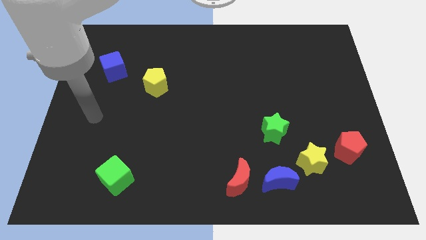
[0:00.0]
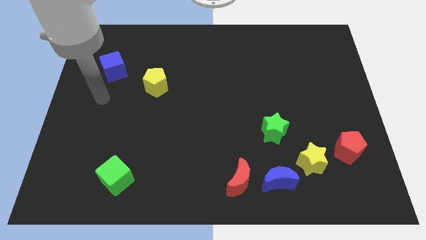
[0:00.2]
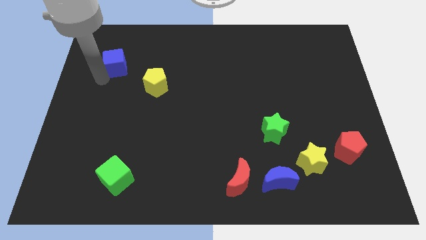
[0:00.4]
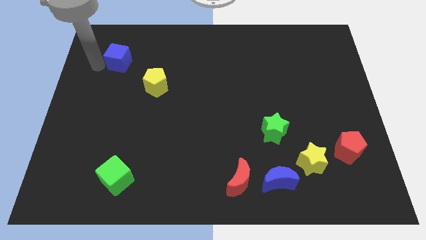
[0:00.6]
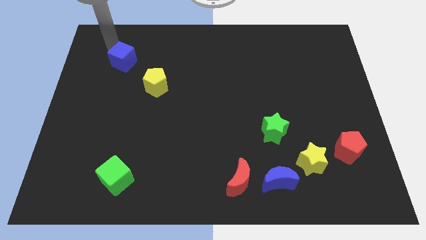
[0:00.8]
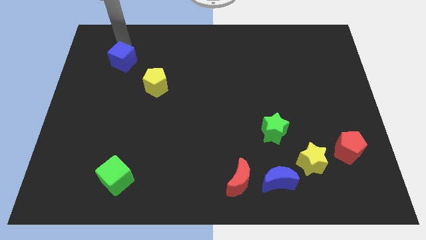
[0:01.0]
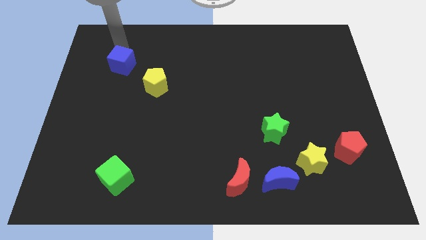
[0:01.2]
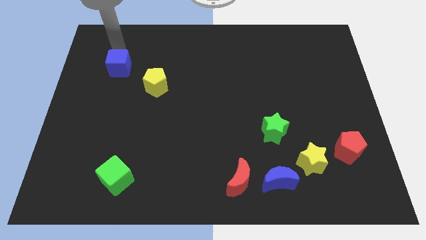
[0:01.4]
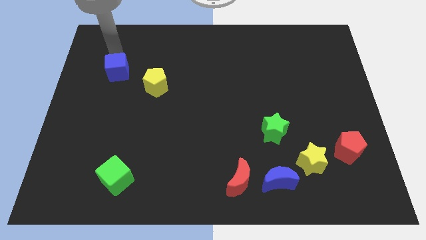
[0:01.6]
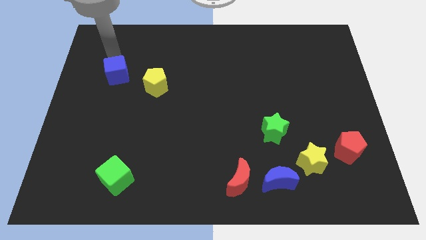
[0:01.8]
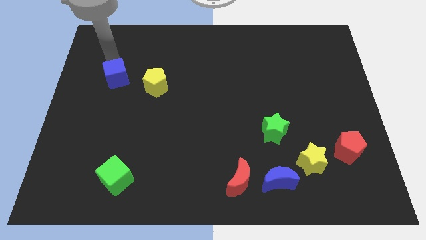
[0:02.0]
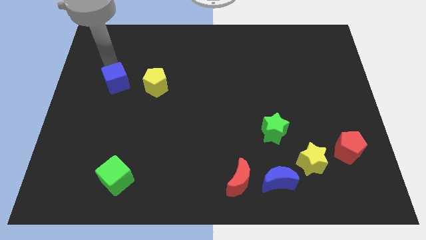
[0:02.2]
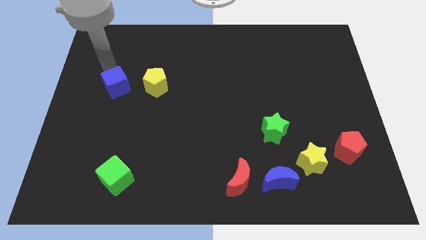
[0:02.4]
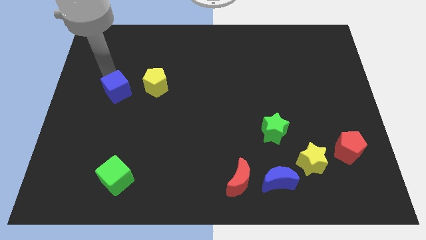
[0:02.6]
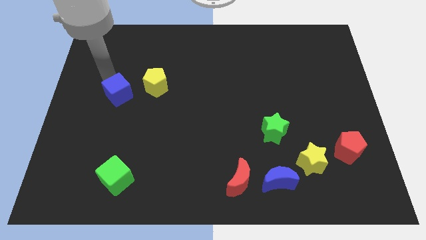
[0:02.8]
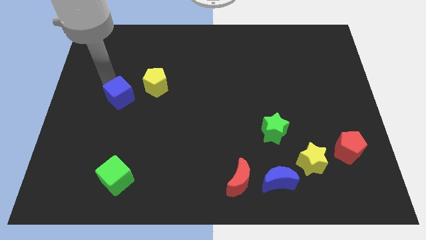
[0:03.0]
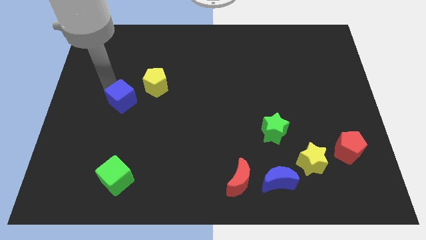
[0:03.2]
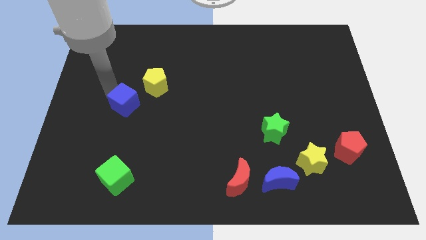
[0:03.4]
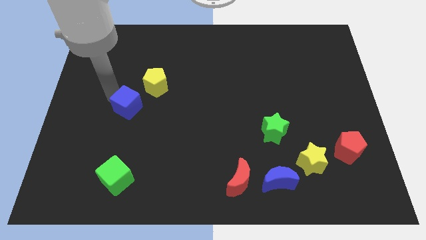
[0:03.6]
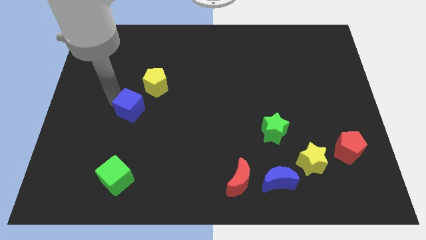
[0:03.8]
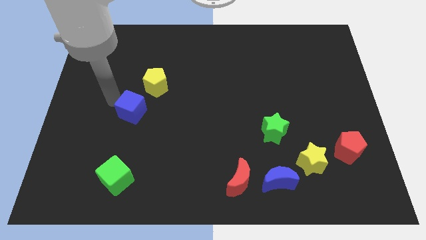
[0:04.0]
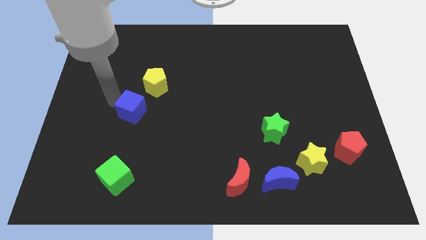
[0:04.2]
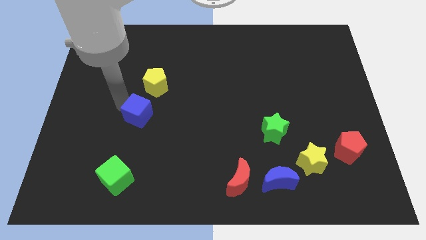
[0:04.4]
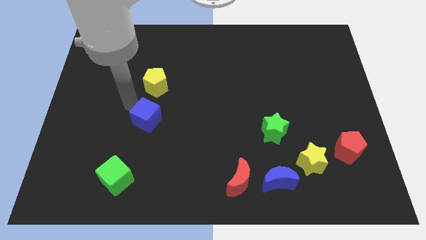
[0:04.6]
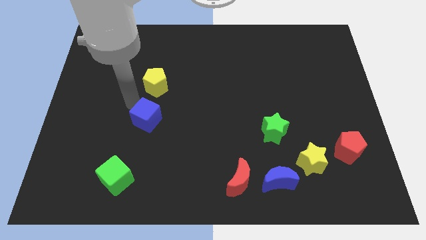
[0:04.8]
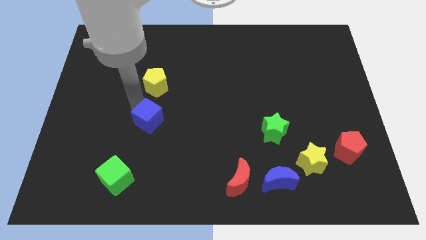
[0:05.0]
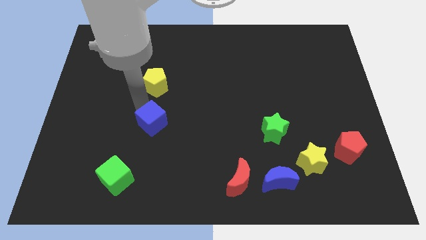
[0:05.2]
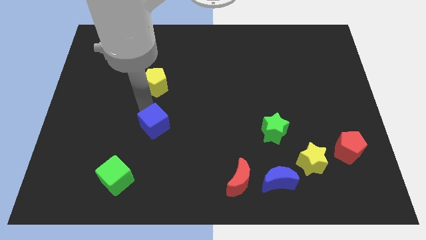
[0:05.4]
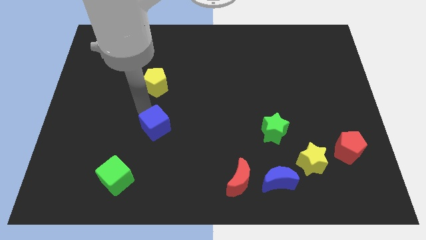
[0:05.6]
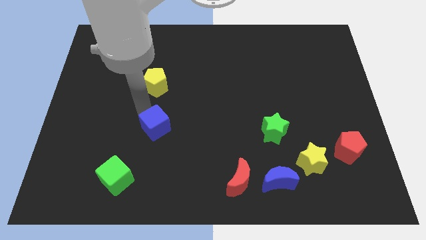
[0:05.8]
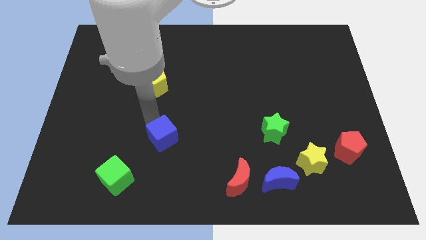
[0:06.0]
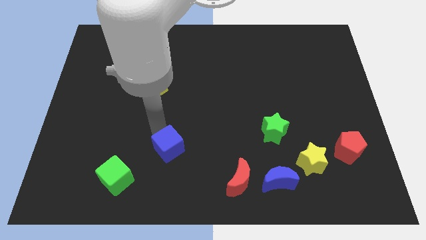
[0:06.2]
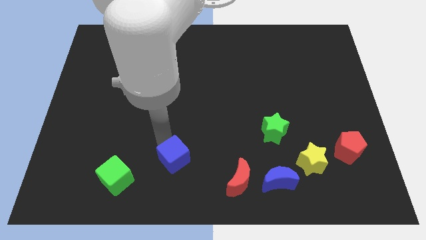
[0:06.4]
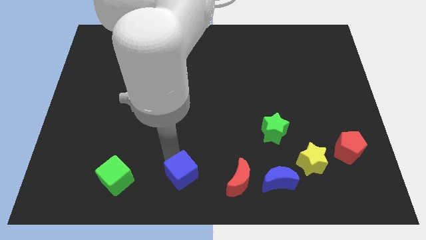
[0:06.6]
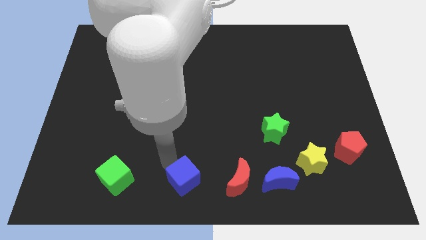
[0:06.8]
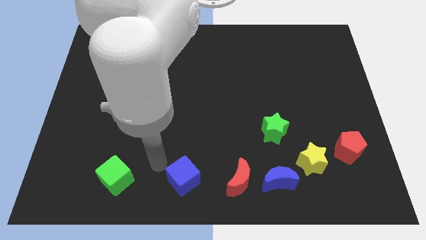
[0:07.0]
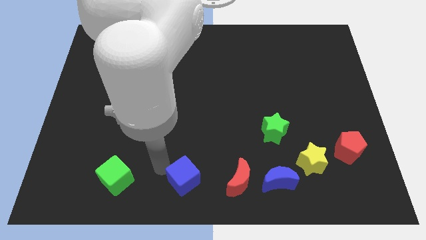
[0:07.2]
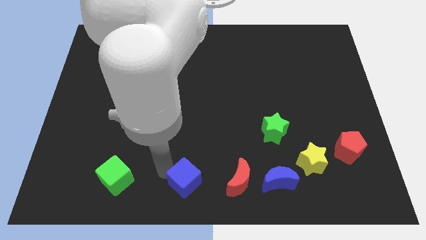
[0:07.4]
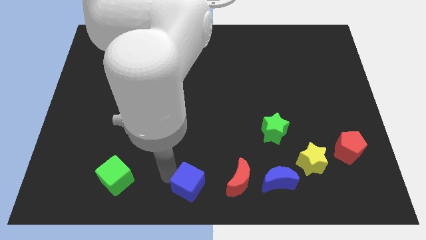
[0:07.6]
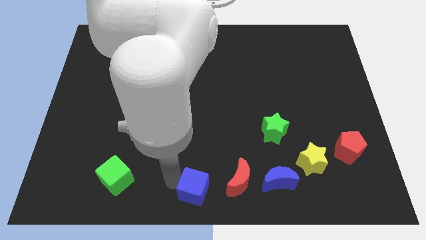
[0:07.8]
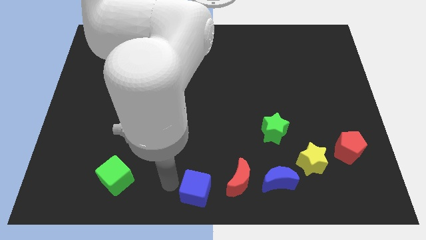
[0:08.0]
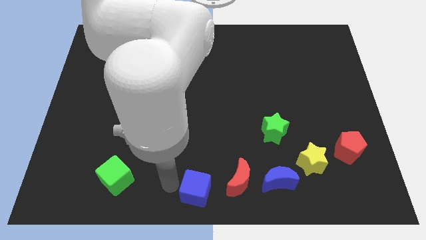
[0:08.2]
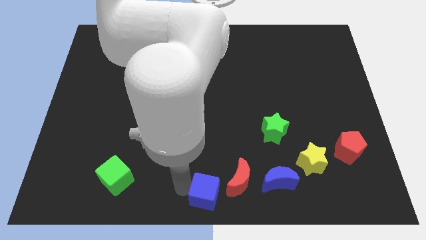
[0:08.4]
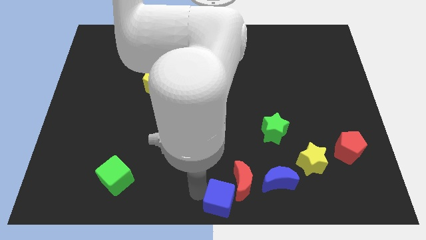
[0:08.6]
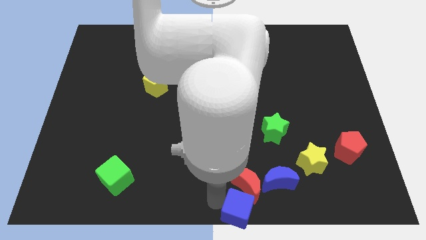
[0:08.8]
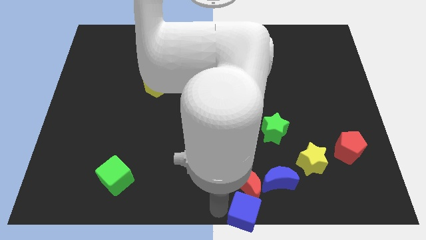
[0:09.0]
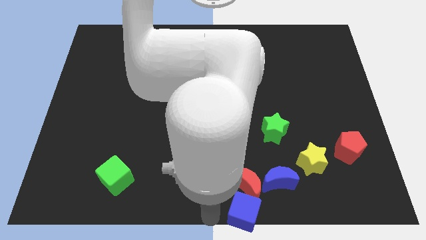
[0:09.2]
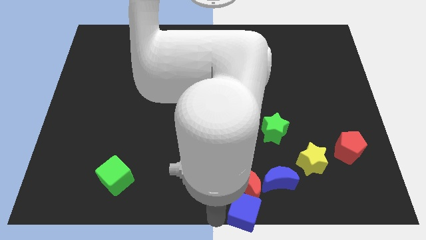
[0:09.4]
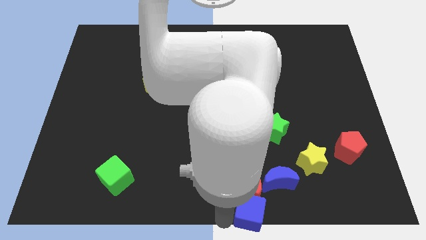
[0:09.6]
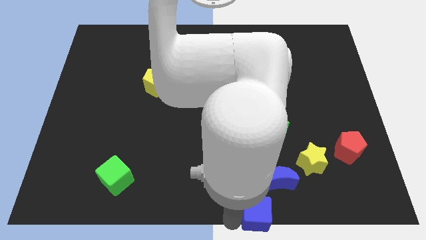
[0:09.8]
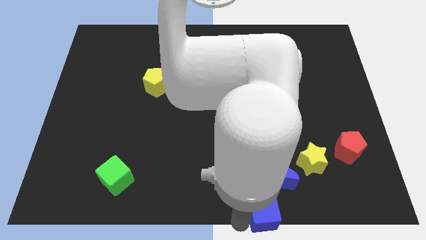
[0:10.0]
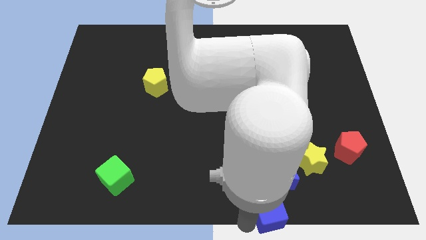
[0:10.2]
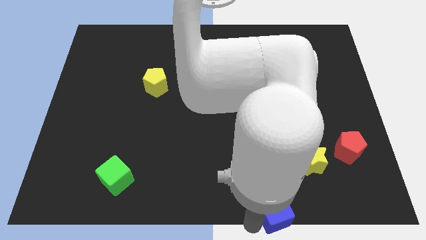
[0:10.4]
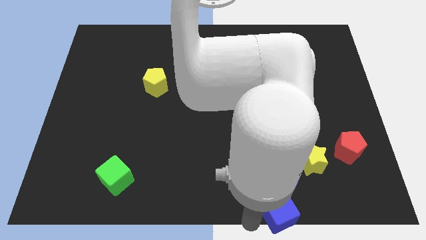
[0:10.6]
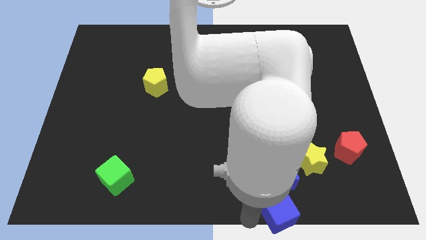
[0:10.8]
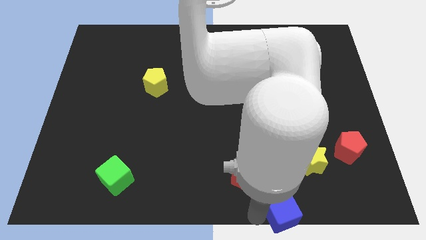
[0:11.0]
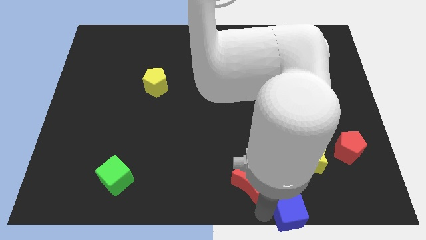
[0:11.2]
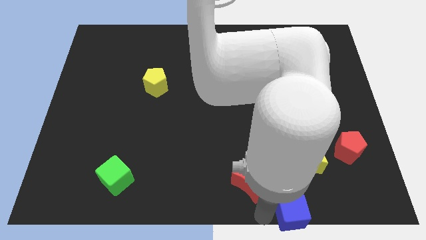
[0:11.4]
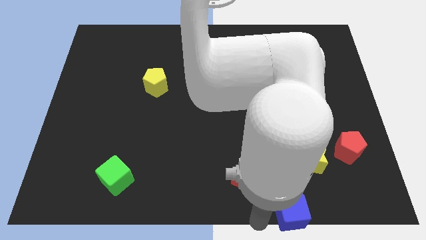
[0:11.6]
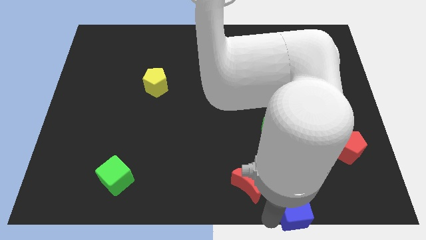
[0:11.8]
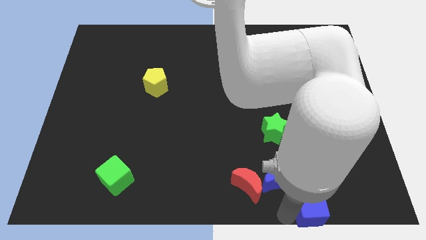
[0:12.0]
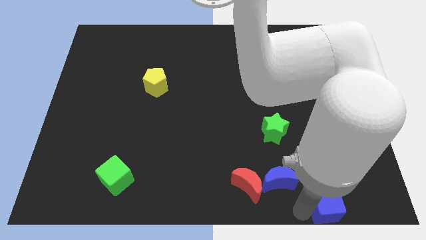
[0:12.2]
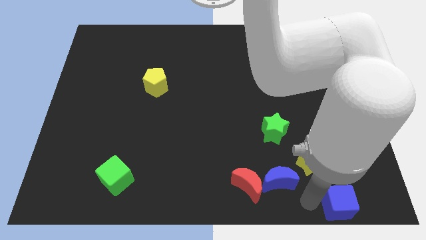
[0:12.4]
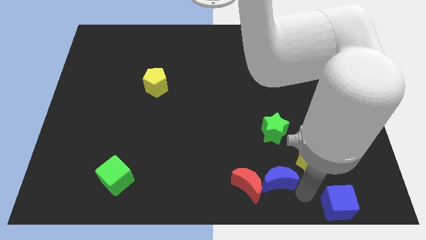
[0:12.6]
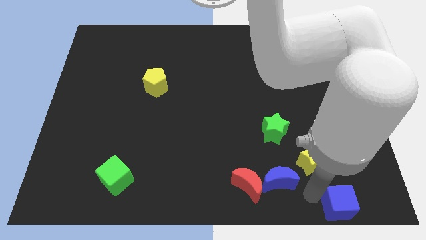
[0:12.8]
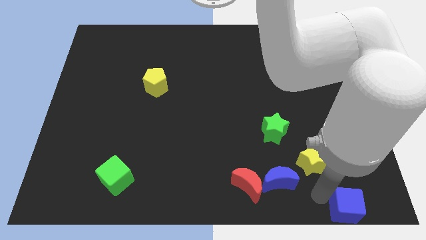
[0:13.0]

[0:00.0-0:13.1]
put the blue cube to the bottom right of the board
